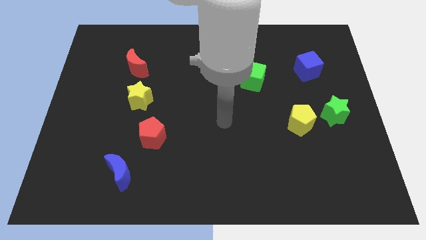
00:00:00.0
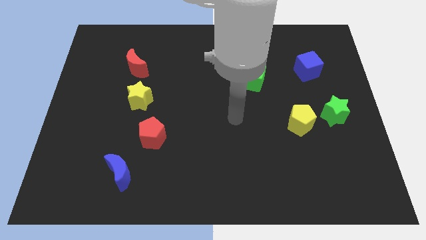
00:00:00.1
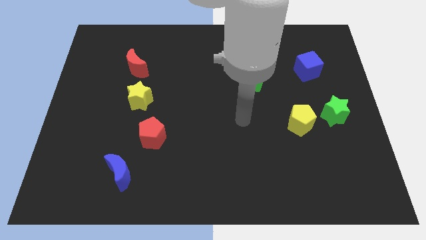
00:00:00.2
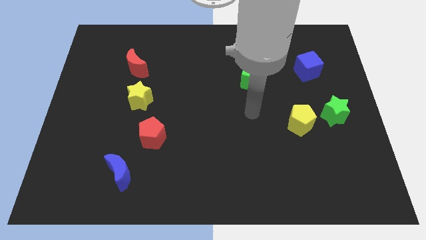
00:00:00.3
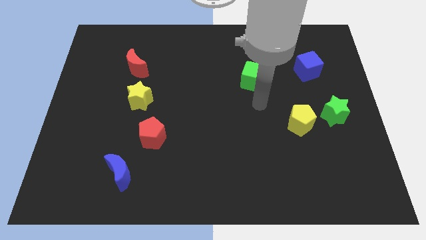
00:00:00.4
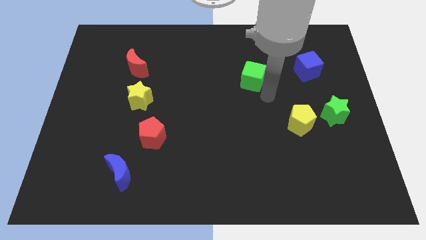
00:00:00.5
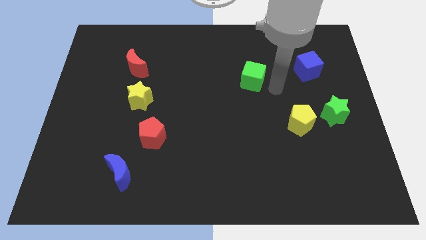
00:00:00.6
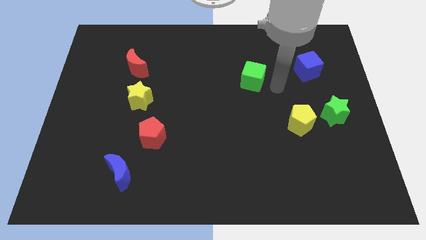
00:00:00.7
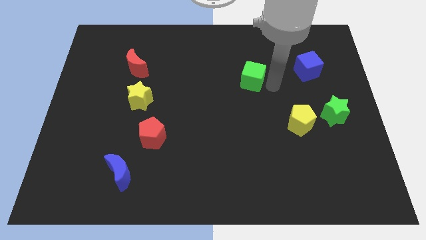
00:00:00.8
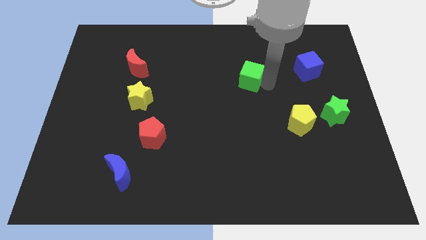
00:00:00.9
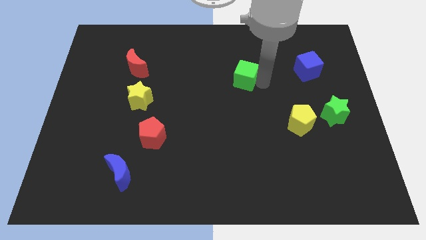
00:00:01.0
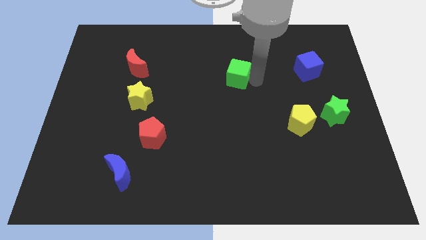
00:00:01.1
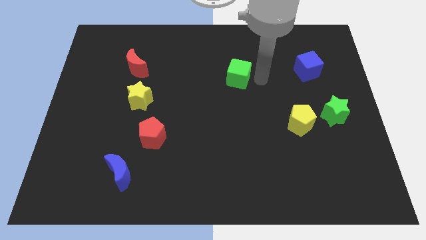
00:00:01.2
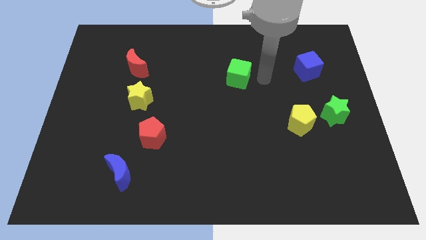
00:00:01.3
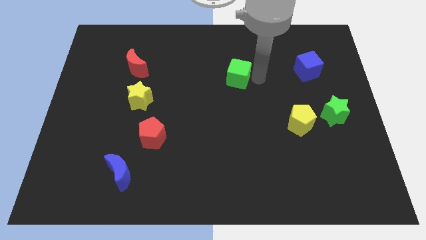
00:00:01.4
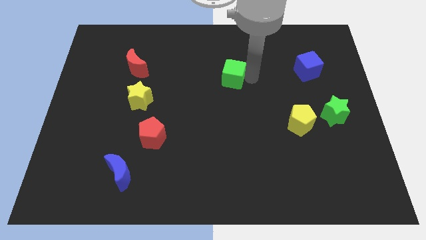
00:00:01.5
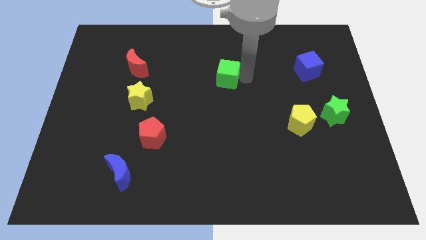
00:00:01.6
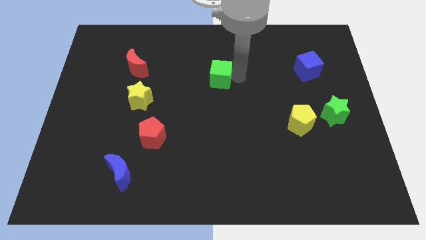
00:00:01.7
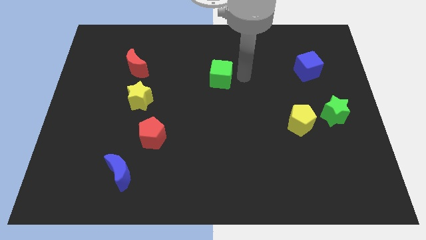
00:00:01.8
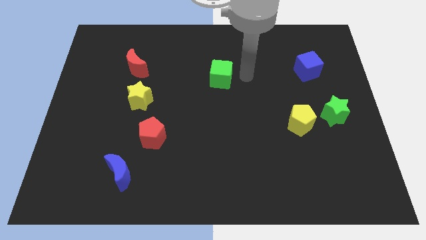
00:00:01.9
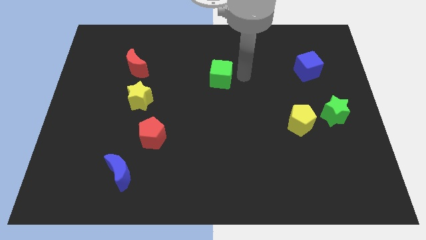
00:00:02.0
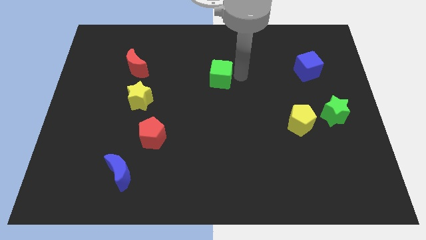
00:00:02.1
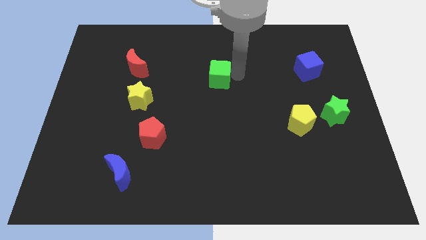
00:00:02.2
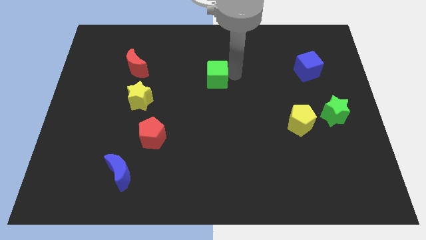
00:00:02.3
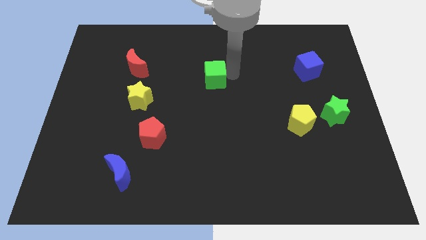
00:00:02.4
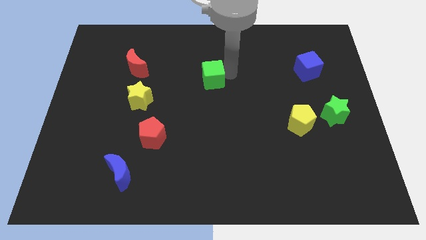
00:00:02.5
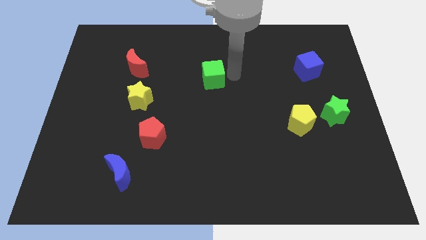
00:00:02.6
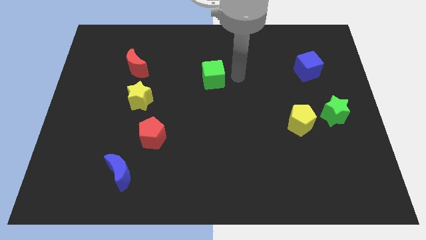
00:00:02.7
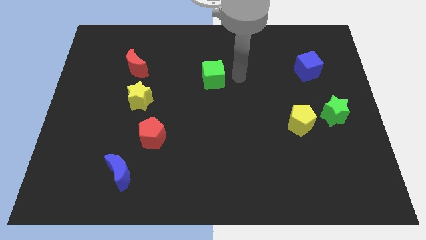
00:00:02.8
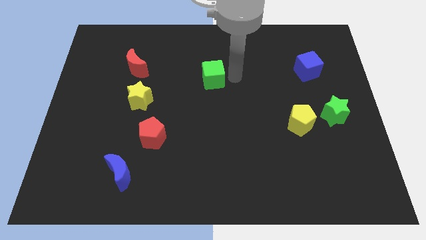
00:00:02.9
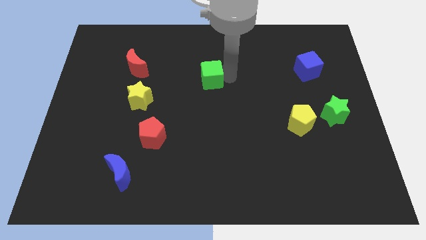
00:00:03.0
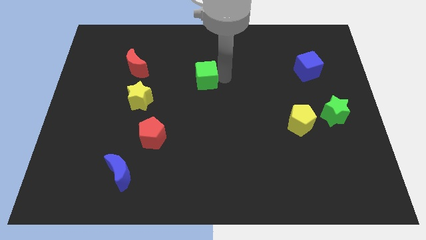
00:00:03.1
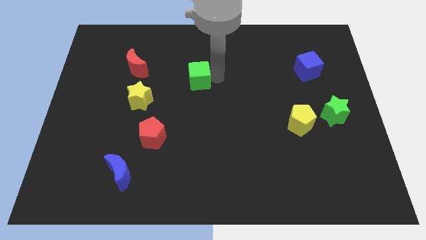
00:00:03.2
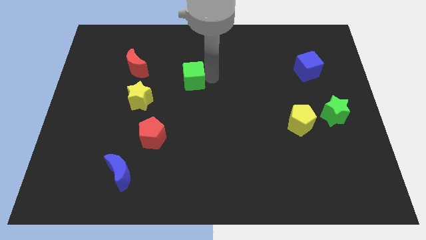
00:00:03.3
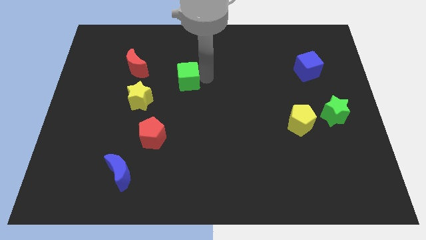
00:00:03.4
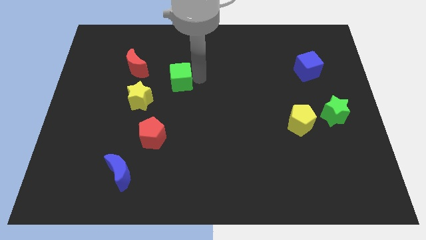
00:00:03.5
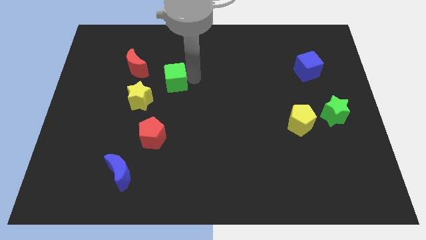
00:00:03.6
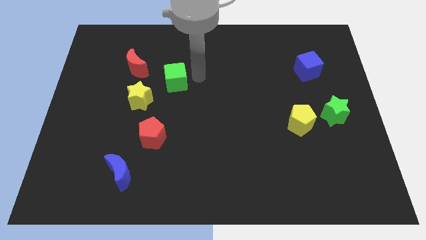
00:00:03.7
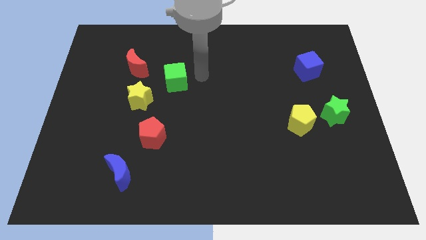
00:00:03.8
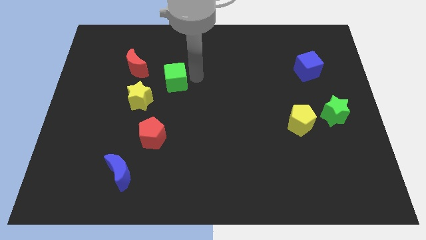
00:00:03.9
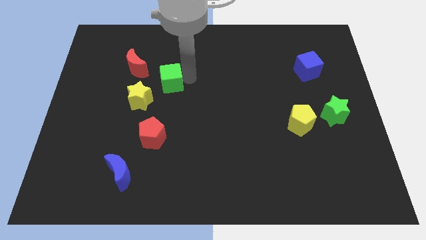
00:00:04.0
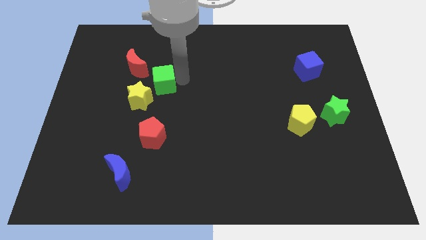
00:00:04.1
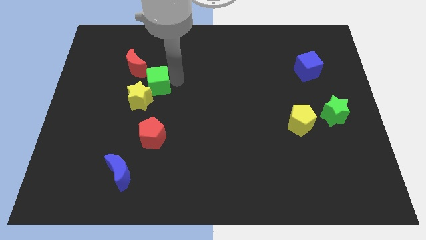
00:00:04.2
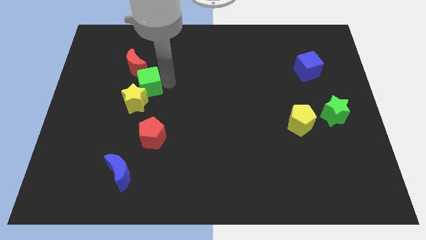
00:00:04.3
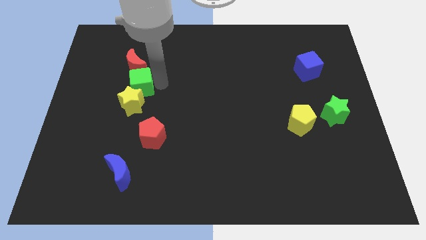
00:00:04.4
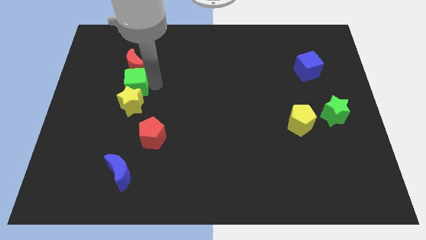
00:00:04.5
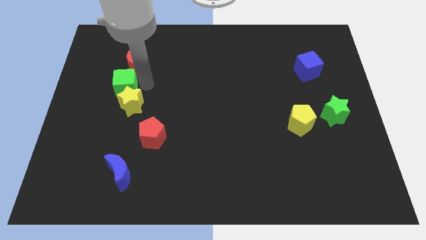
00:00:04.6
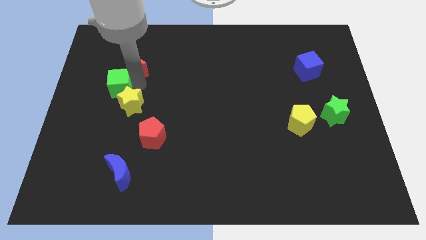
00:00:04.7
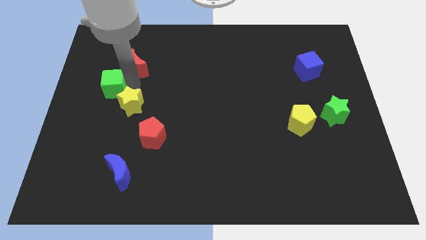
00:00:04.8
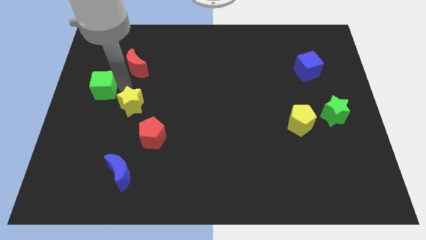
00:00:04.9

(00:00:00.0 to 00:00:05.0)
put the green cube to the center left

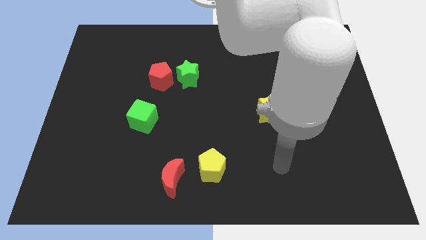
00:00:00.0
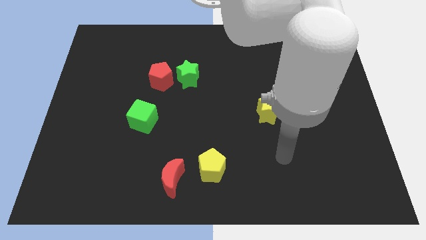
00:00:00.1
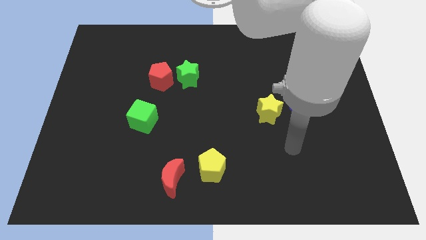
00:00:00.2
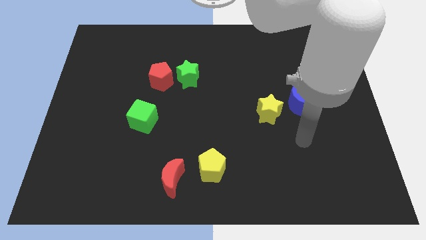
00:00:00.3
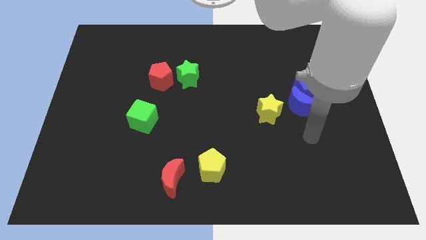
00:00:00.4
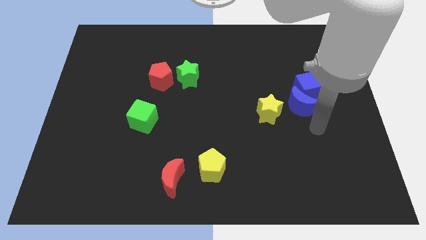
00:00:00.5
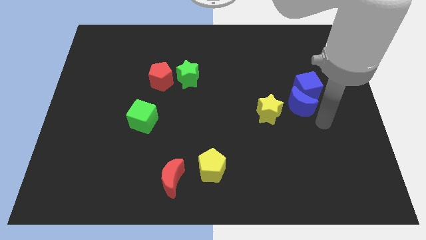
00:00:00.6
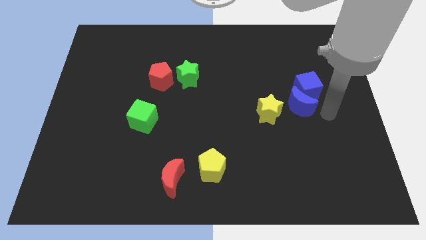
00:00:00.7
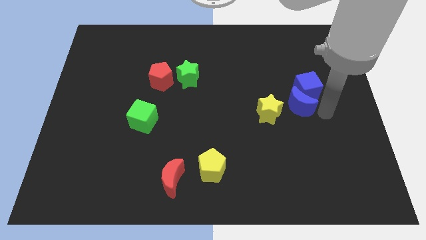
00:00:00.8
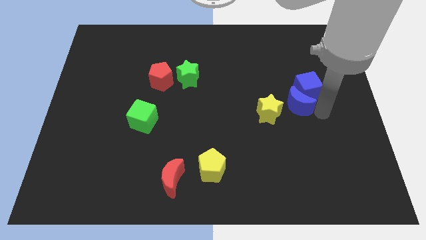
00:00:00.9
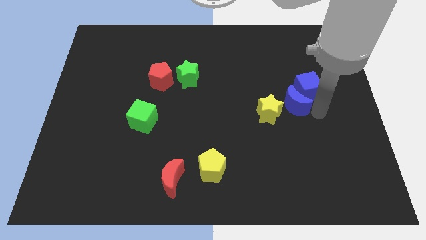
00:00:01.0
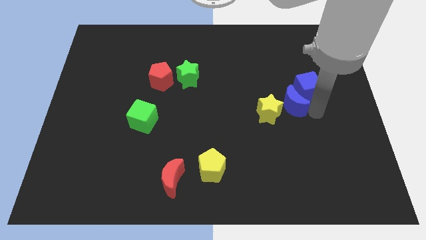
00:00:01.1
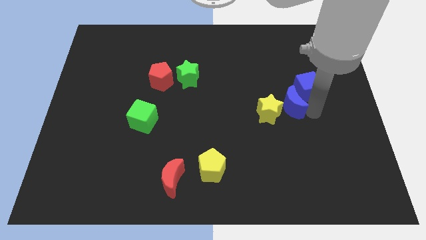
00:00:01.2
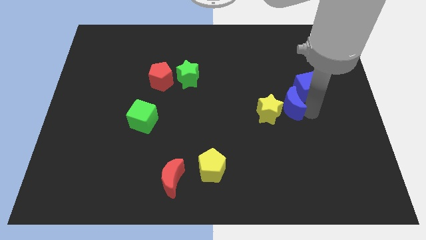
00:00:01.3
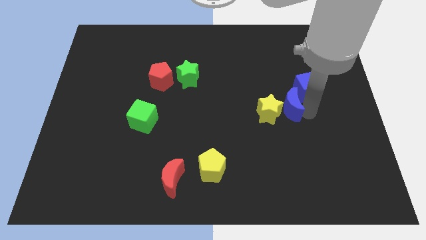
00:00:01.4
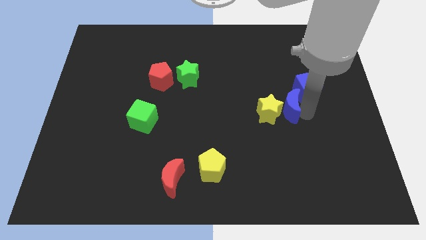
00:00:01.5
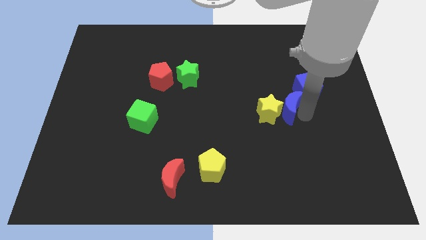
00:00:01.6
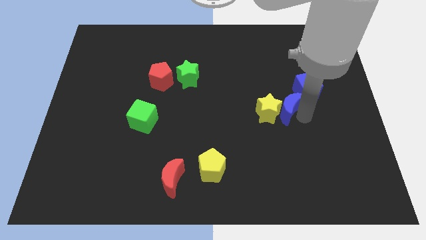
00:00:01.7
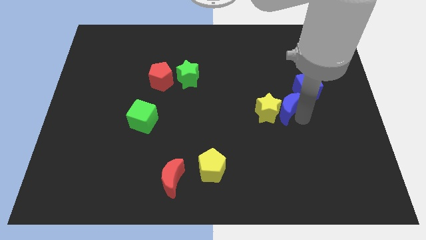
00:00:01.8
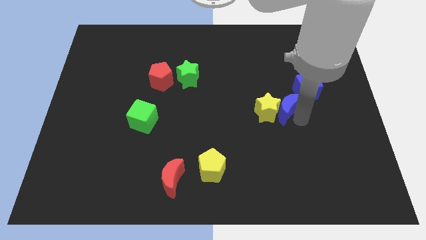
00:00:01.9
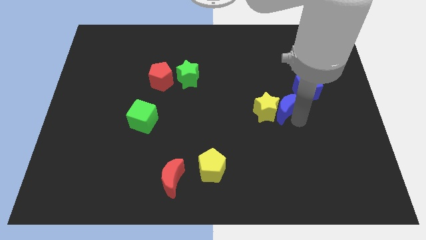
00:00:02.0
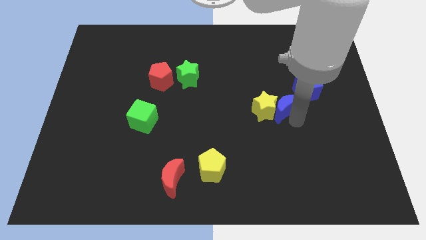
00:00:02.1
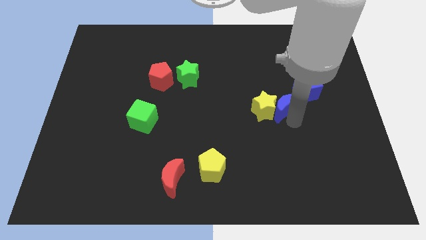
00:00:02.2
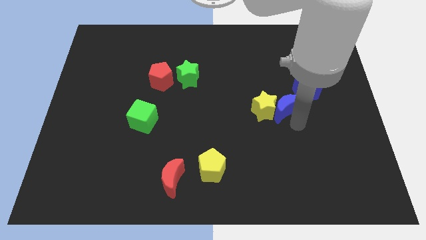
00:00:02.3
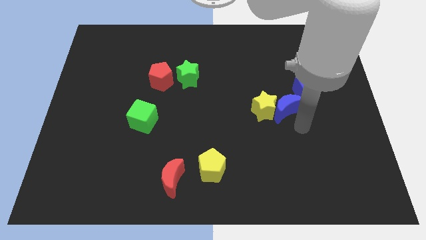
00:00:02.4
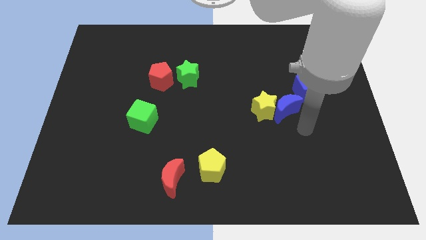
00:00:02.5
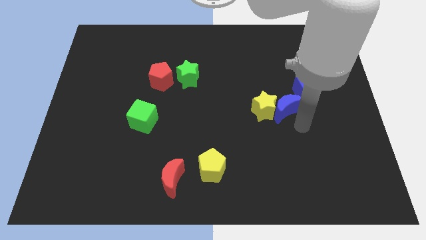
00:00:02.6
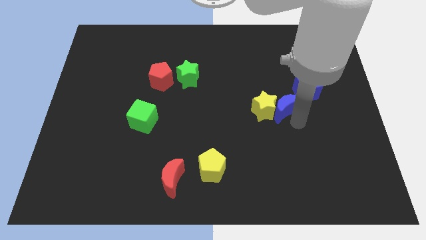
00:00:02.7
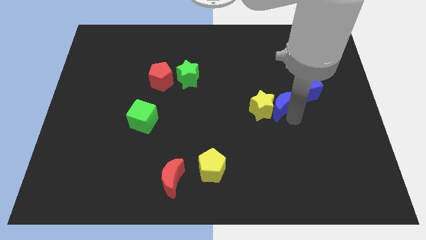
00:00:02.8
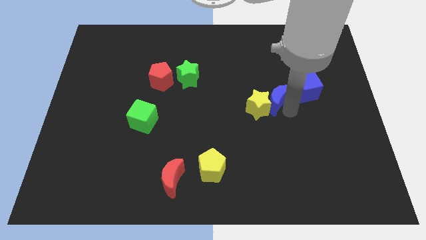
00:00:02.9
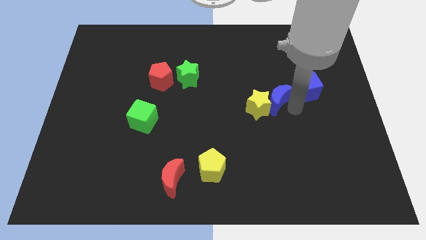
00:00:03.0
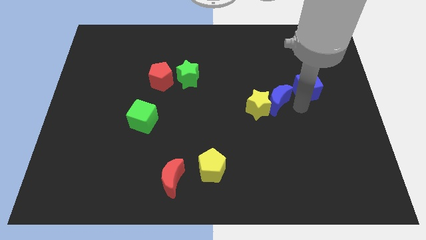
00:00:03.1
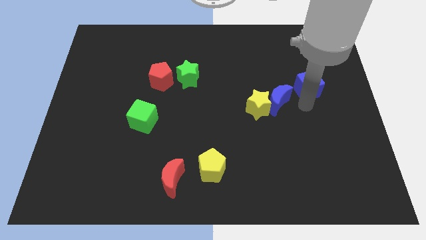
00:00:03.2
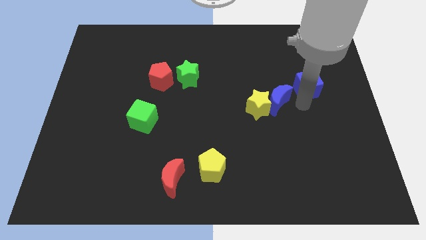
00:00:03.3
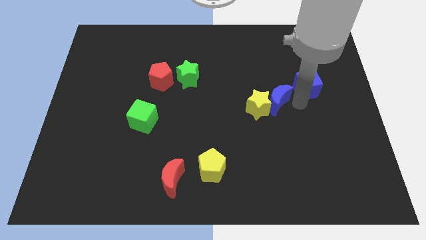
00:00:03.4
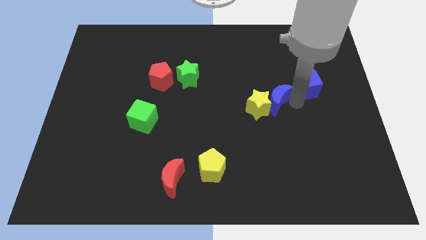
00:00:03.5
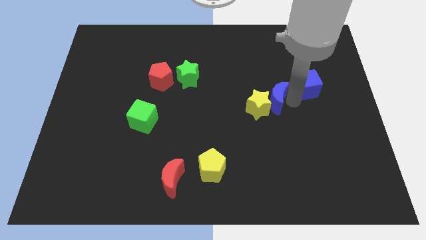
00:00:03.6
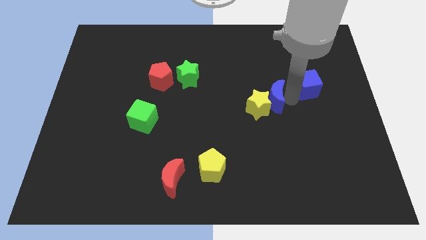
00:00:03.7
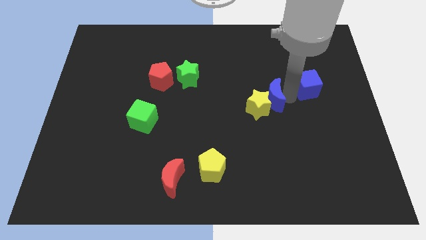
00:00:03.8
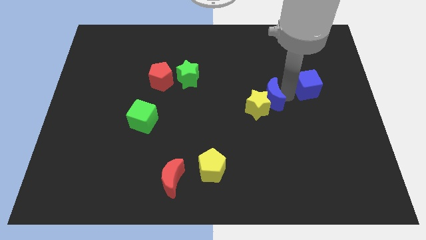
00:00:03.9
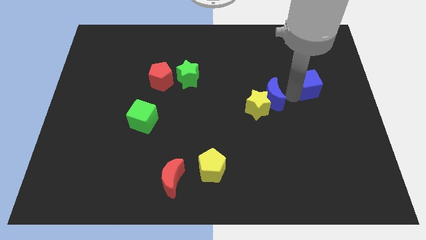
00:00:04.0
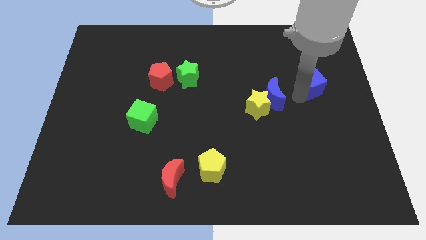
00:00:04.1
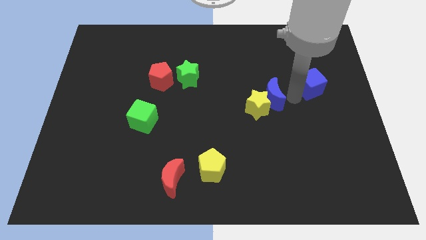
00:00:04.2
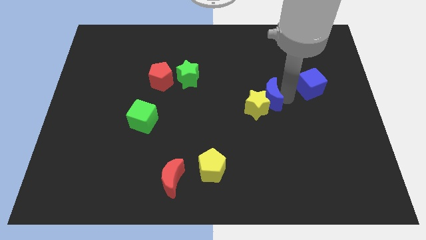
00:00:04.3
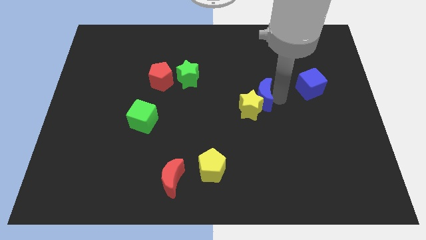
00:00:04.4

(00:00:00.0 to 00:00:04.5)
push the blue moon to the center of the board
